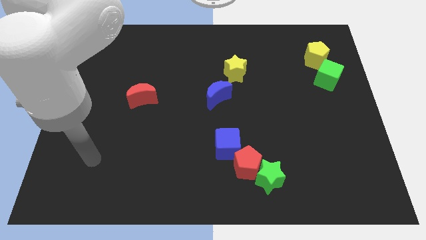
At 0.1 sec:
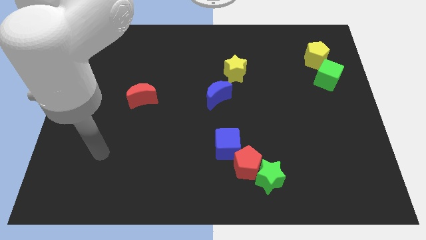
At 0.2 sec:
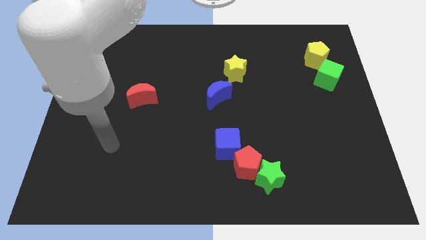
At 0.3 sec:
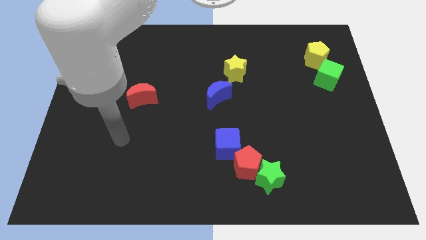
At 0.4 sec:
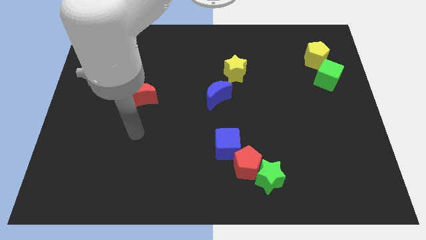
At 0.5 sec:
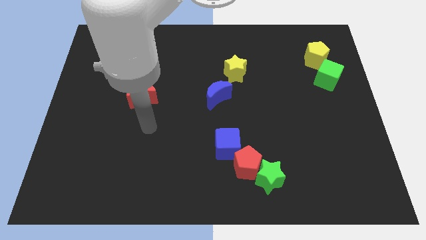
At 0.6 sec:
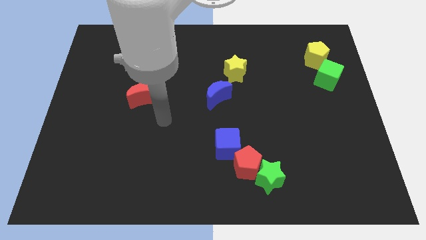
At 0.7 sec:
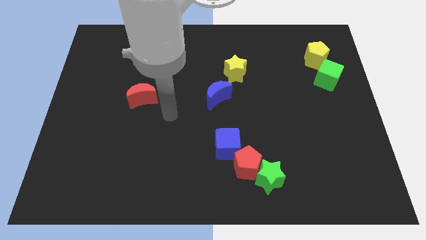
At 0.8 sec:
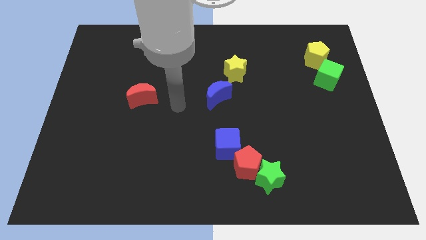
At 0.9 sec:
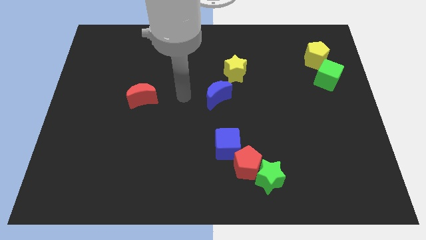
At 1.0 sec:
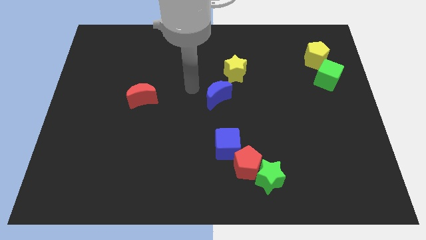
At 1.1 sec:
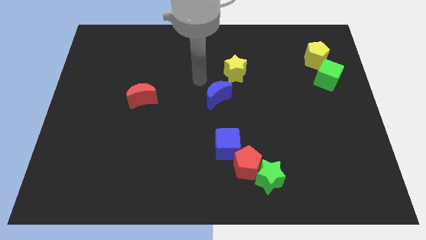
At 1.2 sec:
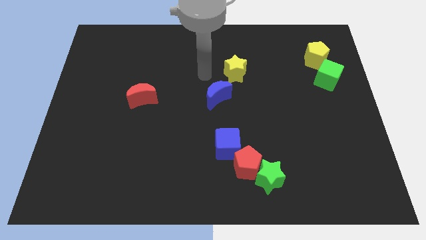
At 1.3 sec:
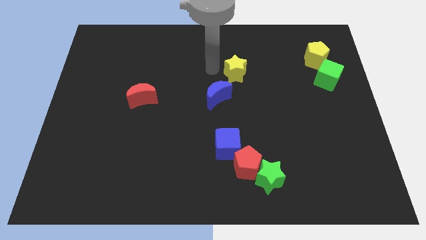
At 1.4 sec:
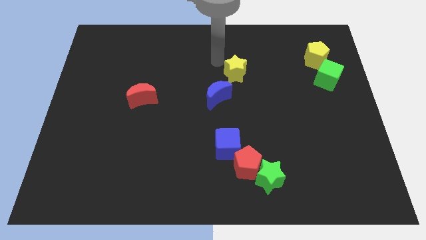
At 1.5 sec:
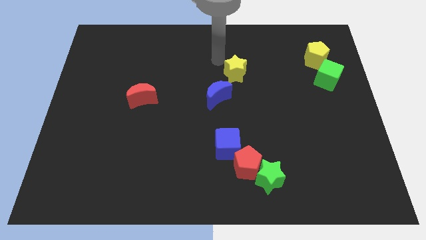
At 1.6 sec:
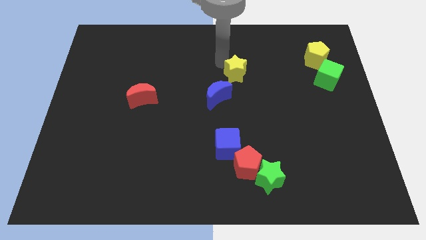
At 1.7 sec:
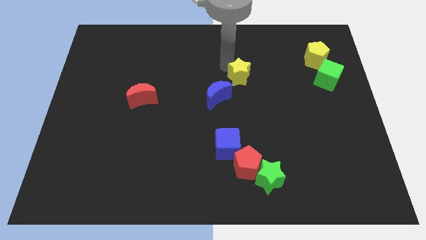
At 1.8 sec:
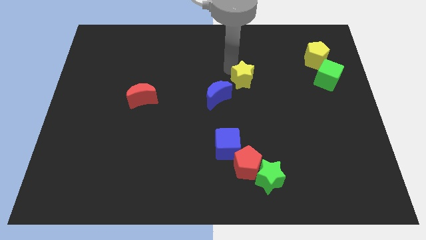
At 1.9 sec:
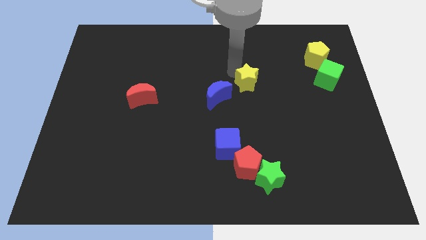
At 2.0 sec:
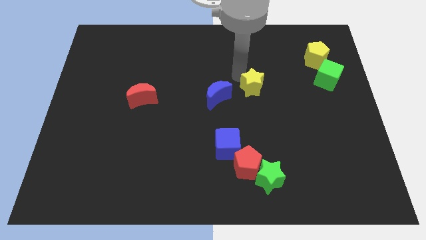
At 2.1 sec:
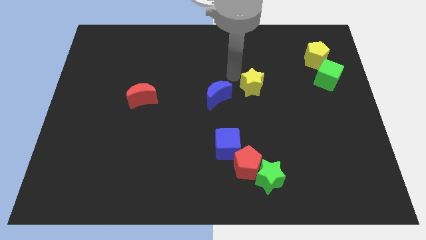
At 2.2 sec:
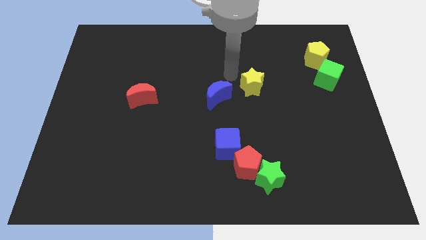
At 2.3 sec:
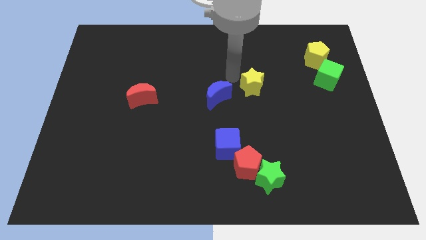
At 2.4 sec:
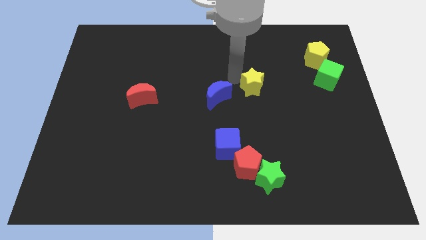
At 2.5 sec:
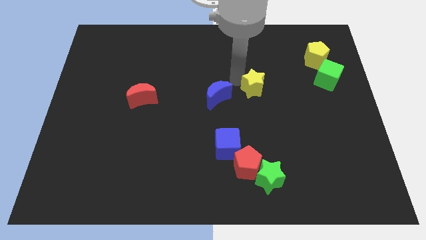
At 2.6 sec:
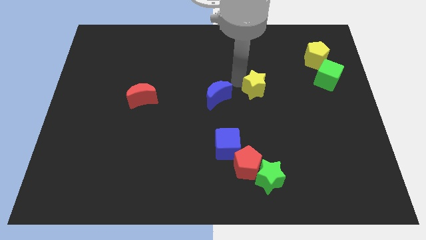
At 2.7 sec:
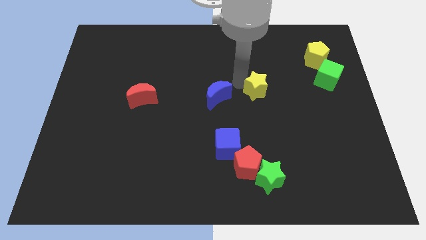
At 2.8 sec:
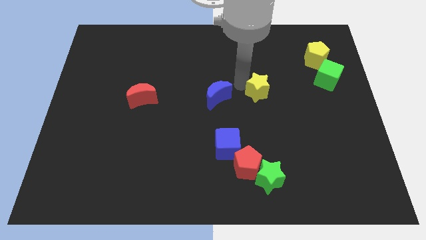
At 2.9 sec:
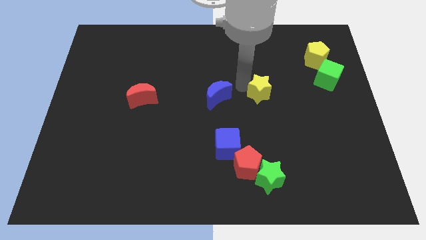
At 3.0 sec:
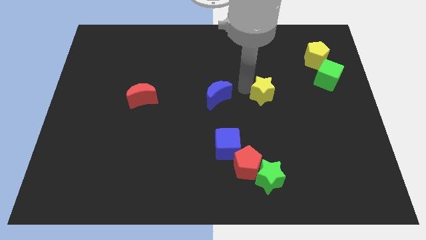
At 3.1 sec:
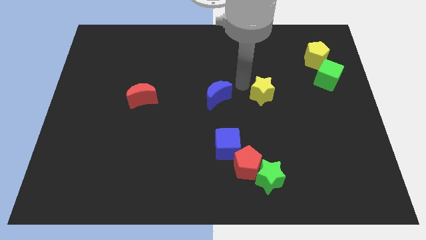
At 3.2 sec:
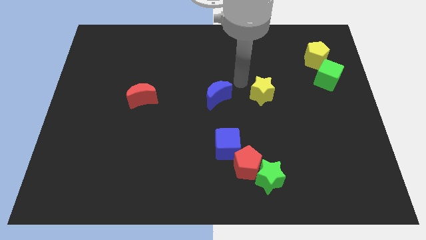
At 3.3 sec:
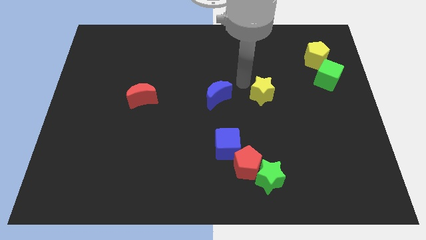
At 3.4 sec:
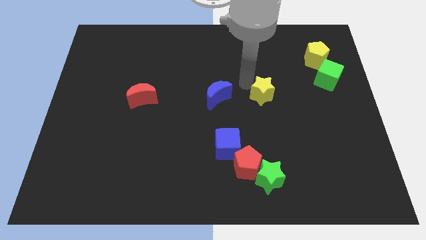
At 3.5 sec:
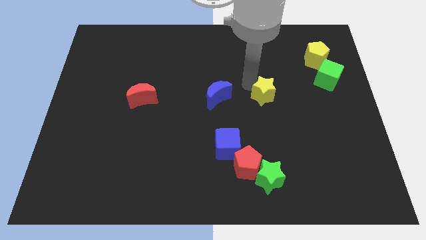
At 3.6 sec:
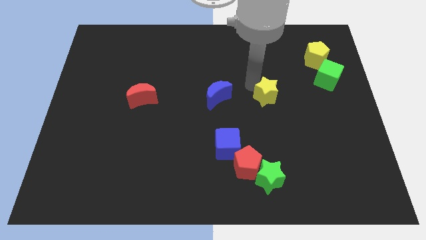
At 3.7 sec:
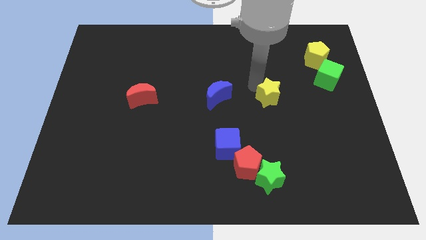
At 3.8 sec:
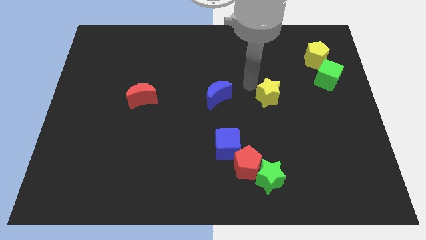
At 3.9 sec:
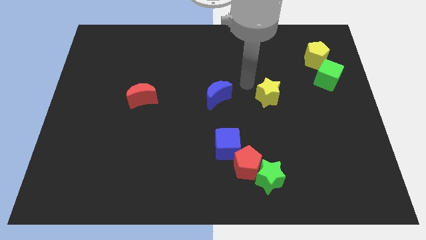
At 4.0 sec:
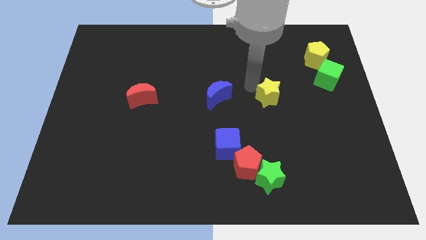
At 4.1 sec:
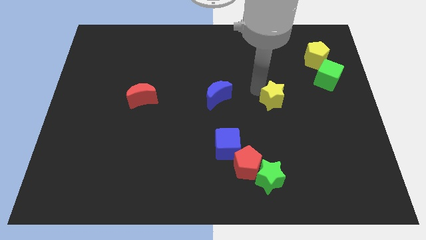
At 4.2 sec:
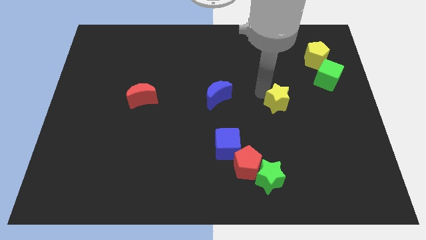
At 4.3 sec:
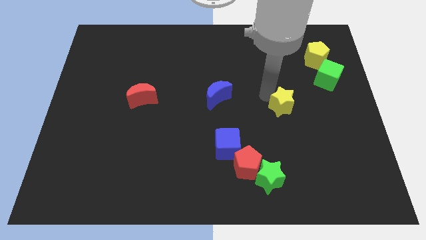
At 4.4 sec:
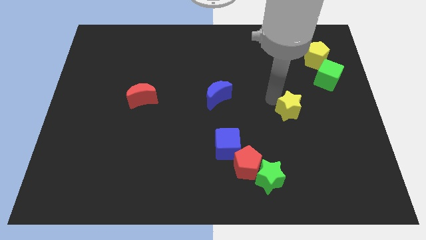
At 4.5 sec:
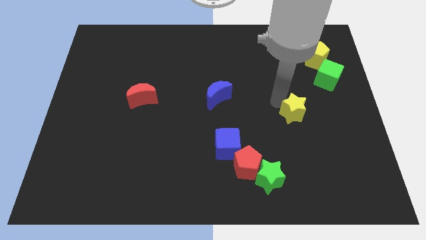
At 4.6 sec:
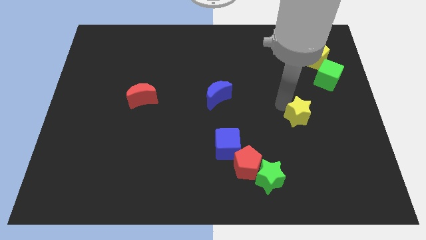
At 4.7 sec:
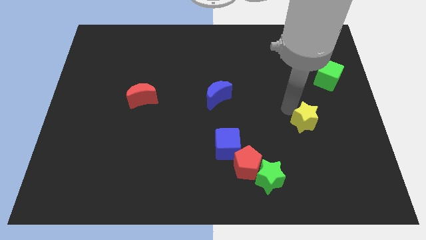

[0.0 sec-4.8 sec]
move the yellow star down and then right

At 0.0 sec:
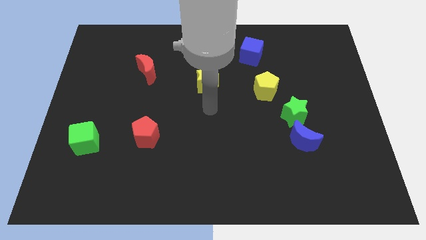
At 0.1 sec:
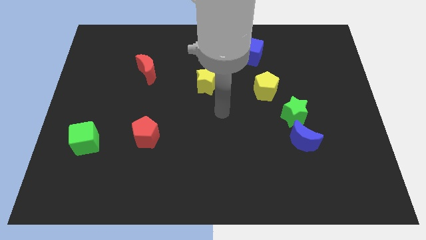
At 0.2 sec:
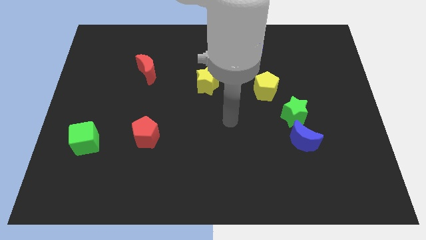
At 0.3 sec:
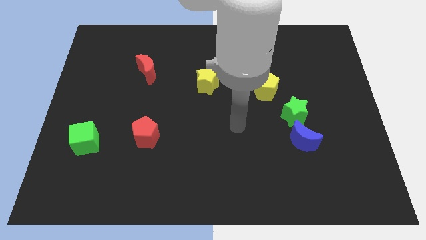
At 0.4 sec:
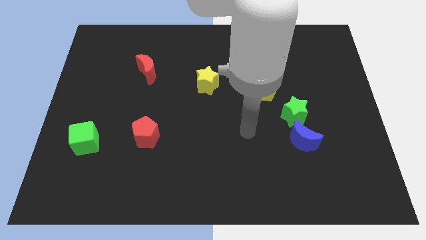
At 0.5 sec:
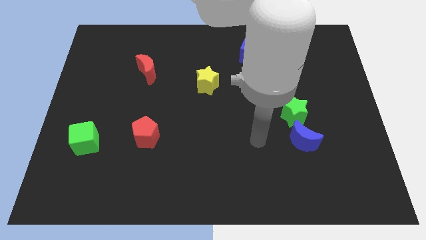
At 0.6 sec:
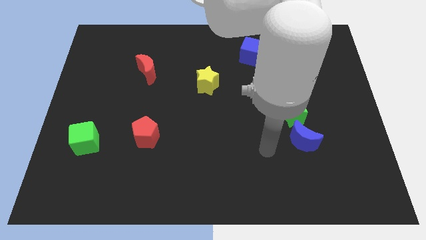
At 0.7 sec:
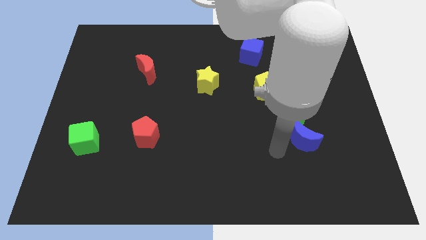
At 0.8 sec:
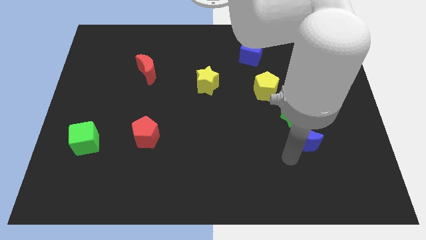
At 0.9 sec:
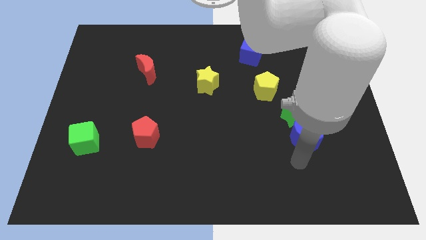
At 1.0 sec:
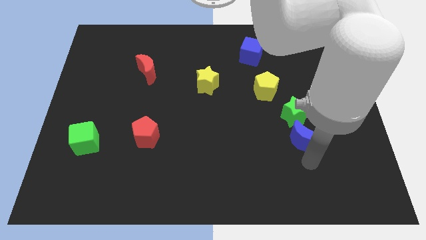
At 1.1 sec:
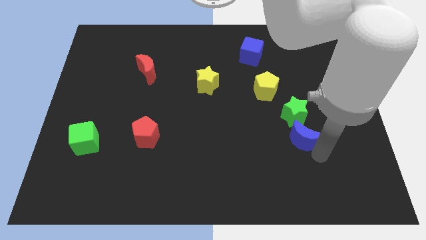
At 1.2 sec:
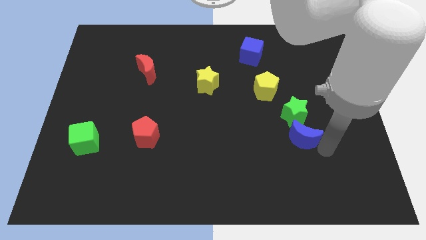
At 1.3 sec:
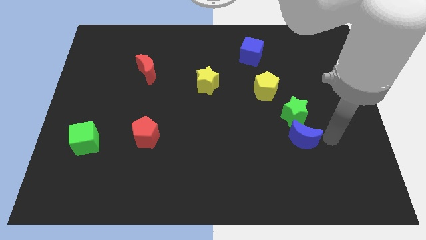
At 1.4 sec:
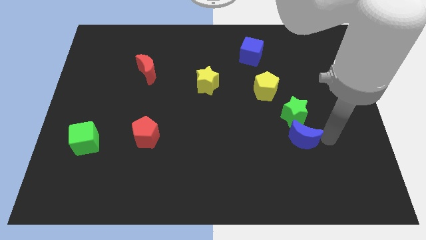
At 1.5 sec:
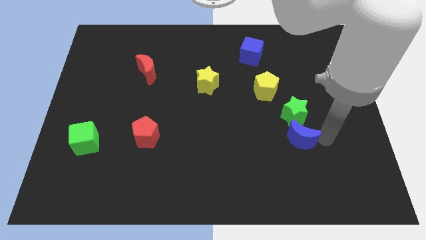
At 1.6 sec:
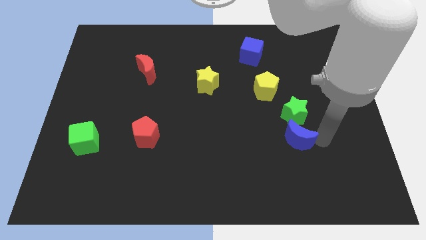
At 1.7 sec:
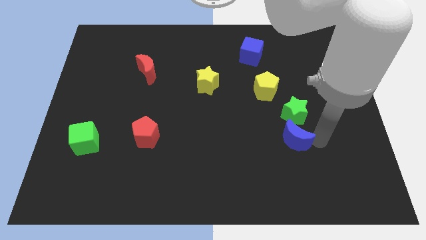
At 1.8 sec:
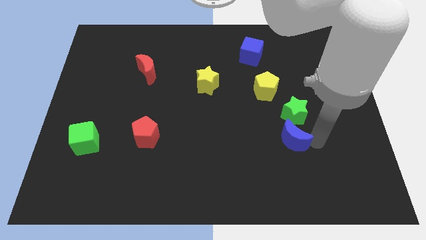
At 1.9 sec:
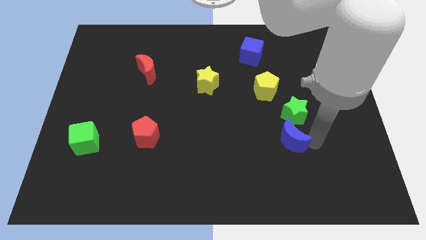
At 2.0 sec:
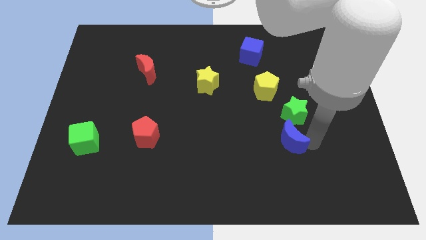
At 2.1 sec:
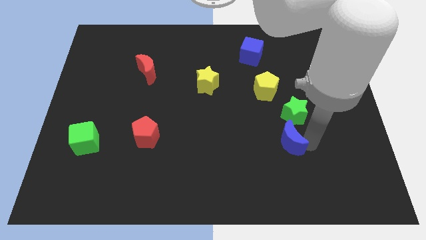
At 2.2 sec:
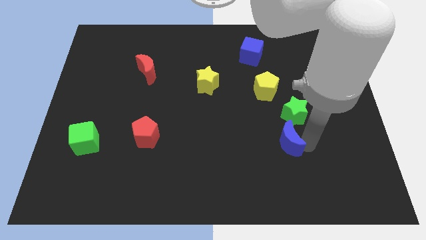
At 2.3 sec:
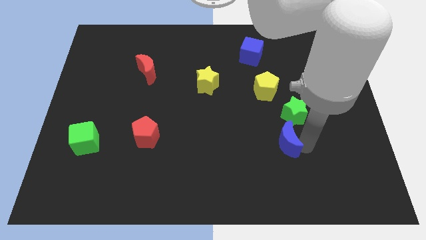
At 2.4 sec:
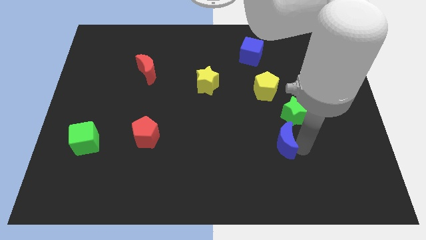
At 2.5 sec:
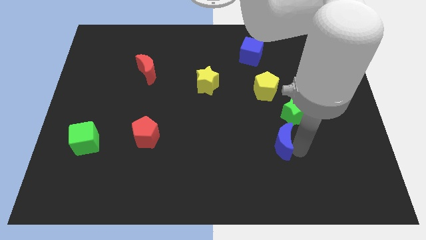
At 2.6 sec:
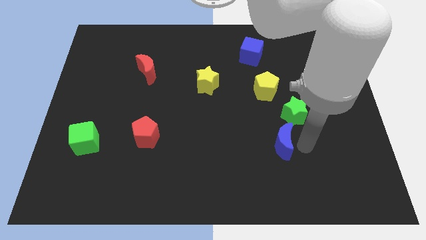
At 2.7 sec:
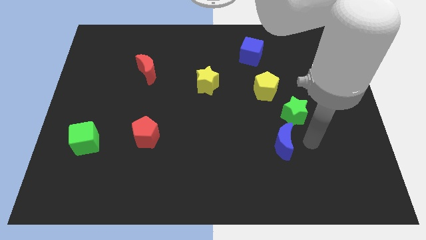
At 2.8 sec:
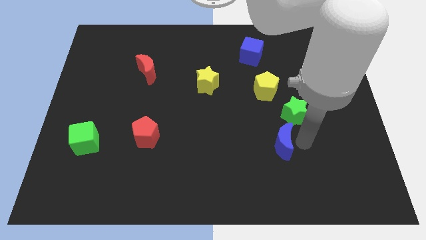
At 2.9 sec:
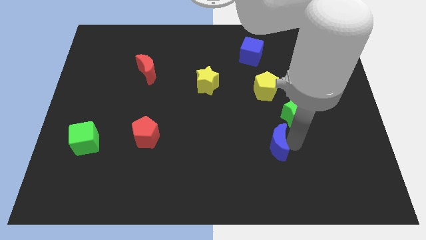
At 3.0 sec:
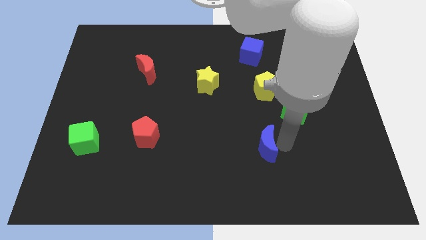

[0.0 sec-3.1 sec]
move the blue moon a bit left
